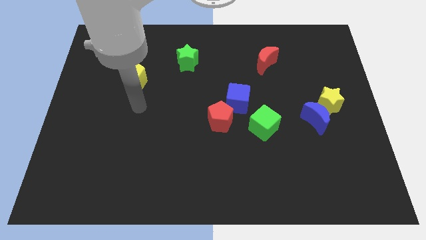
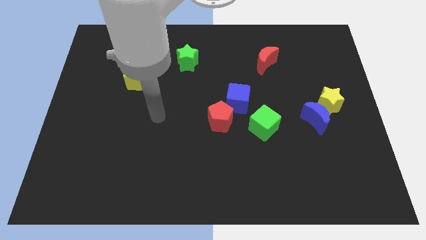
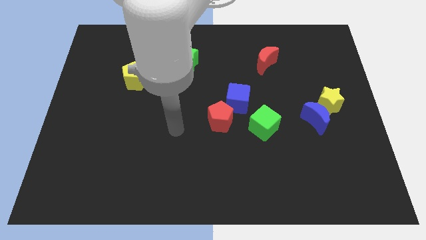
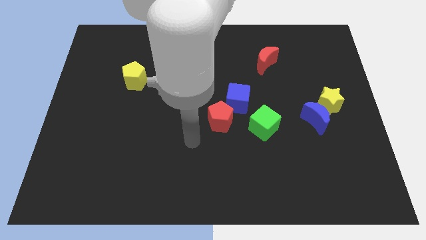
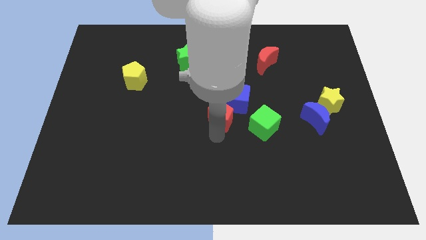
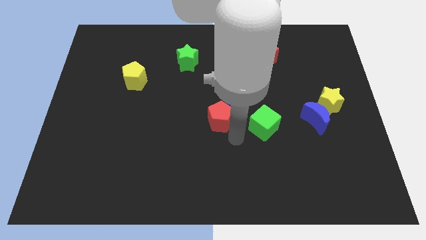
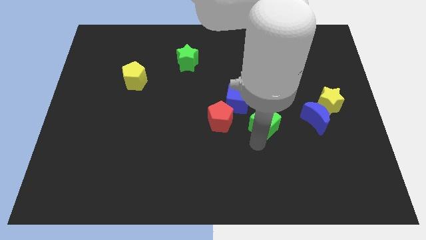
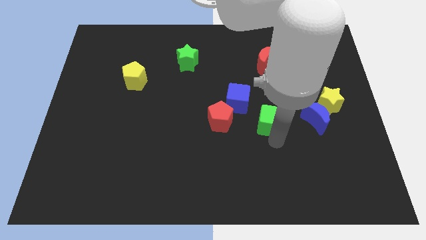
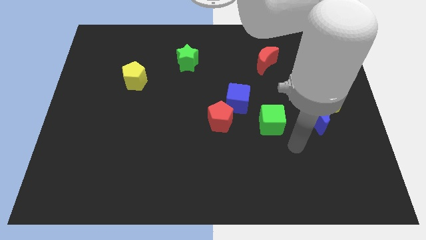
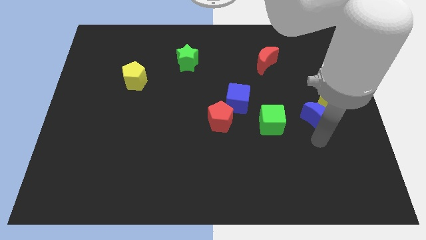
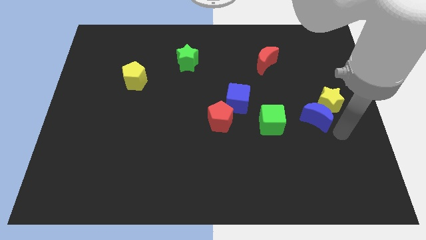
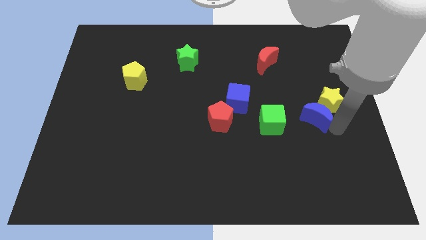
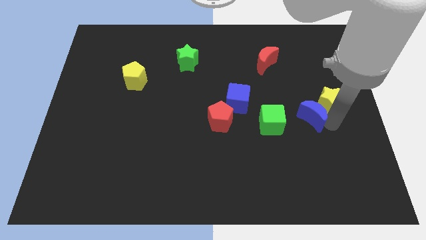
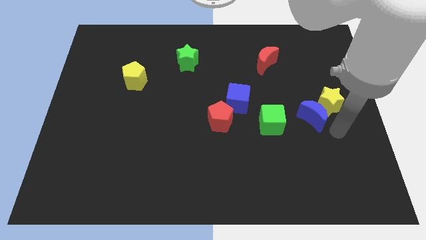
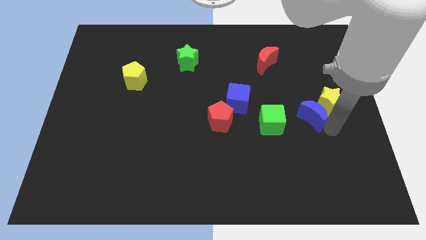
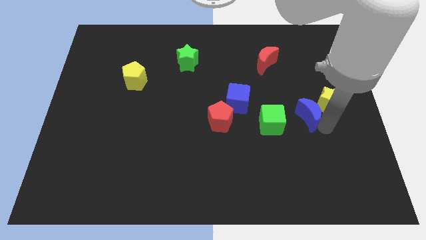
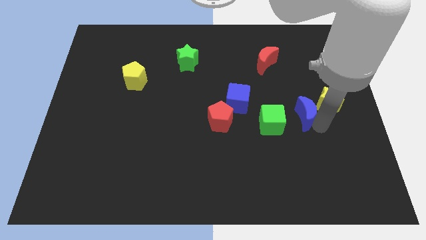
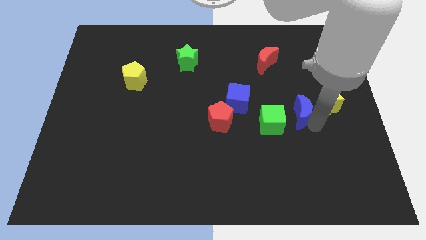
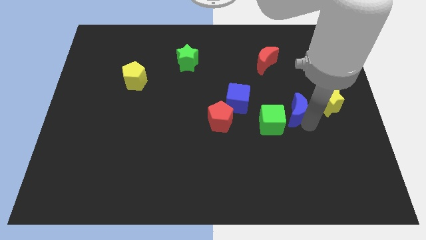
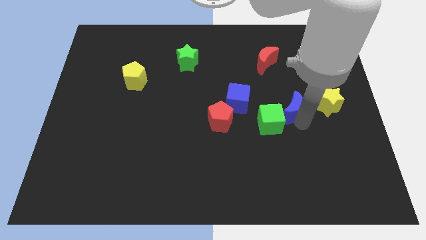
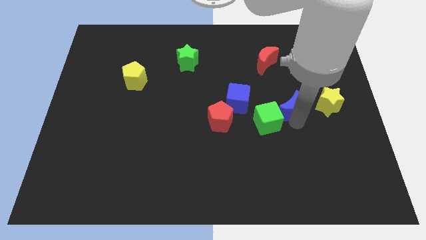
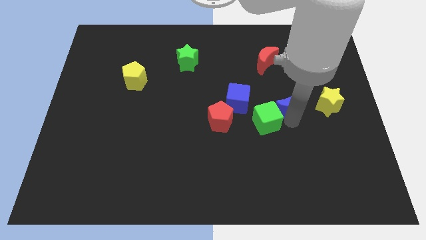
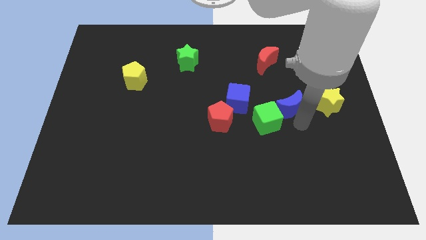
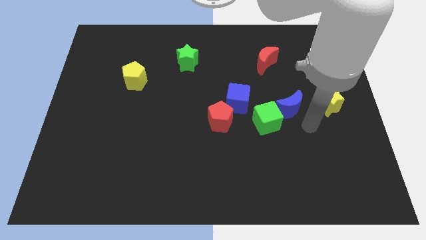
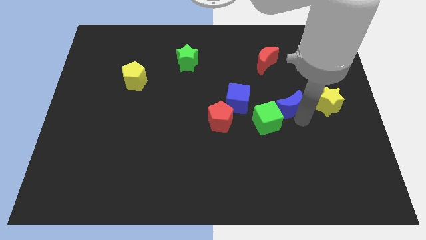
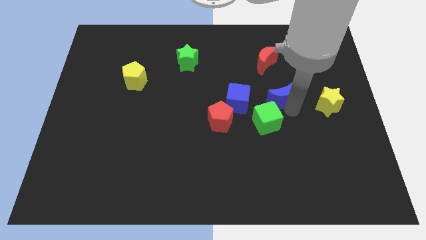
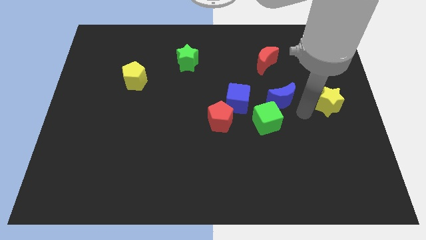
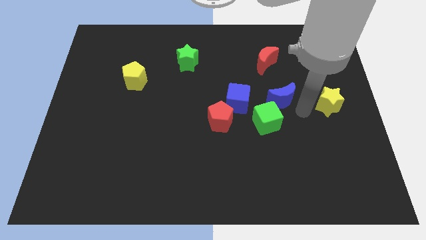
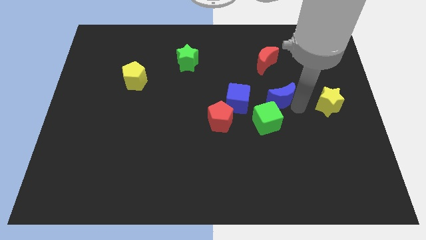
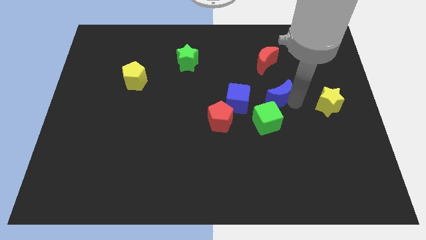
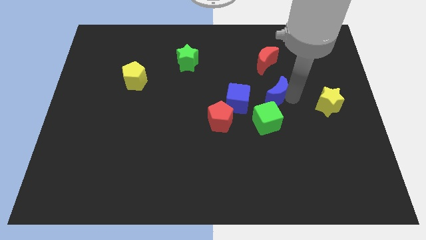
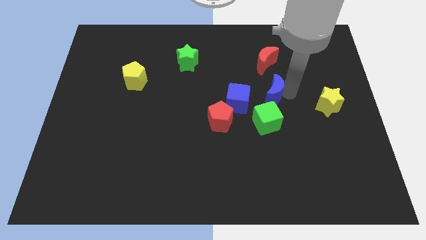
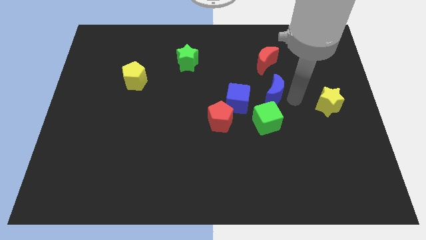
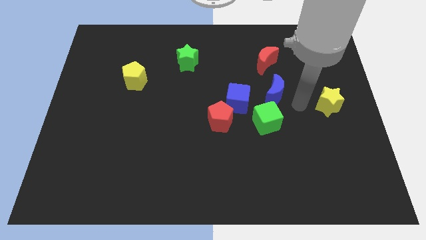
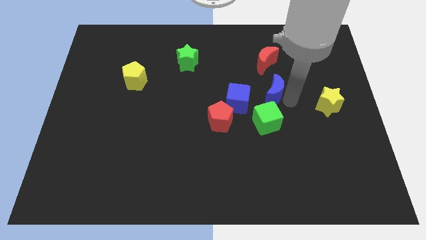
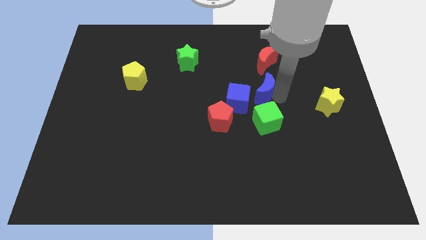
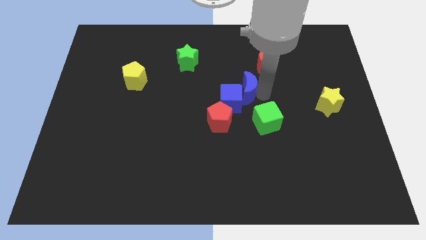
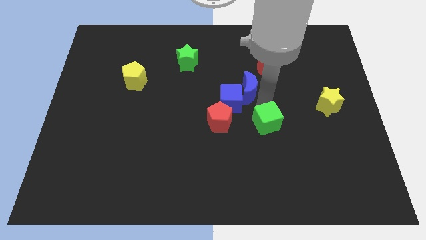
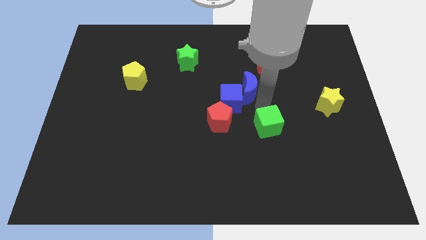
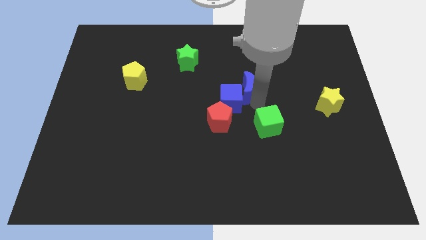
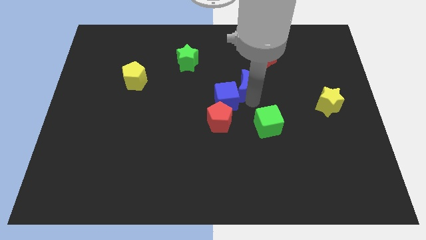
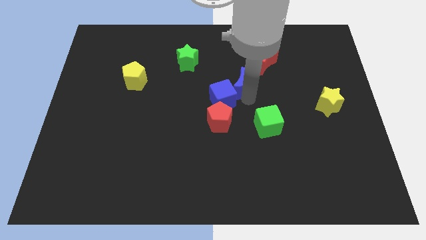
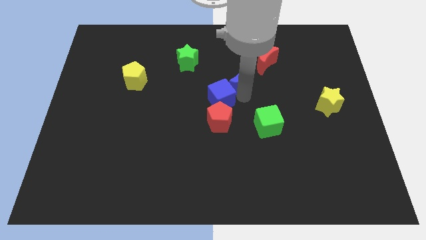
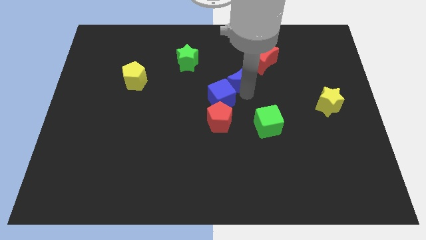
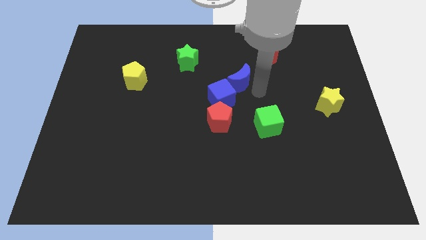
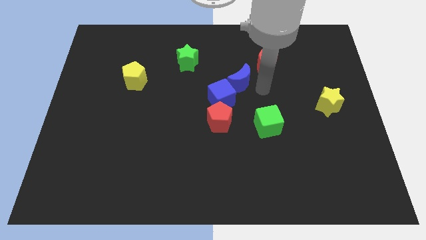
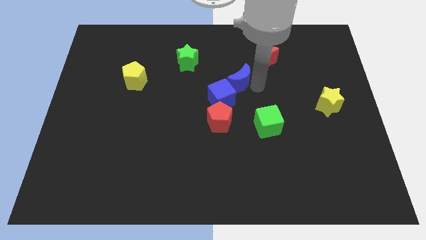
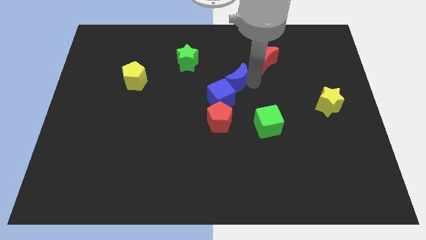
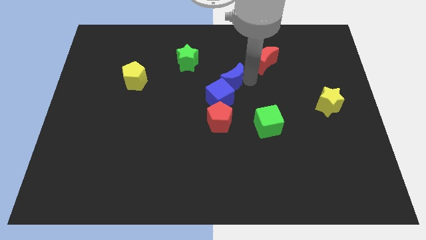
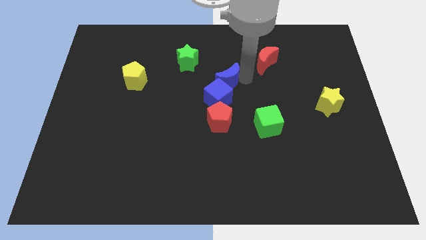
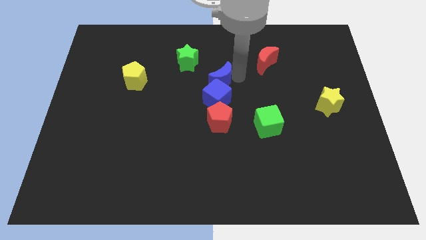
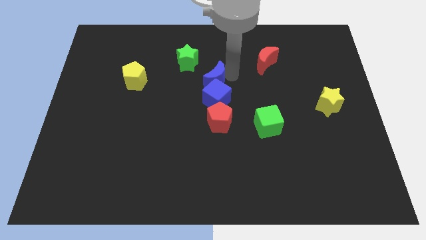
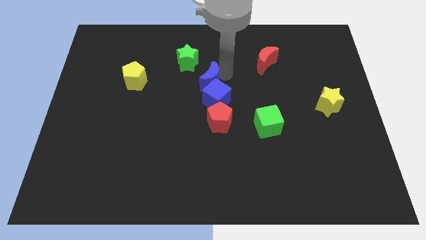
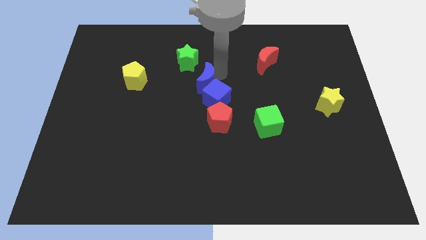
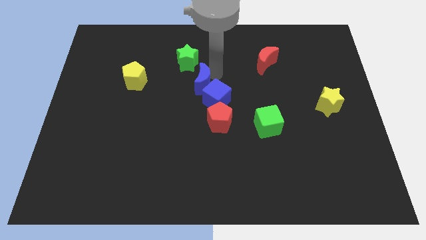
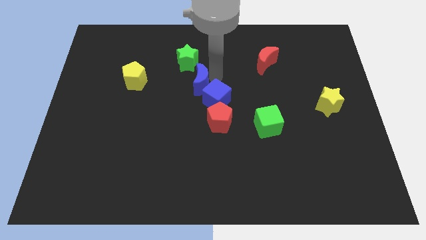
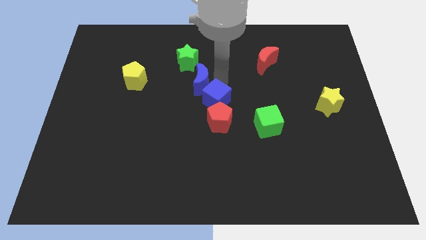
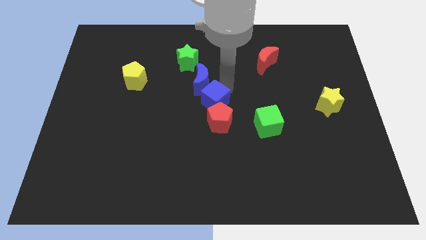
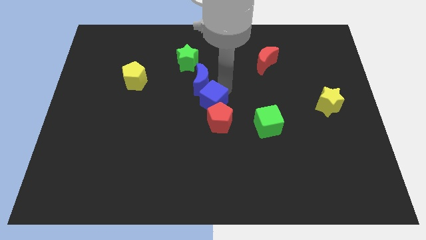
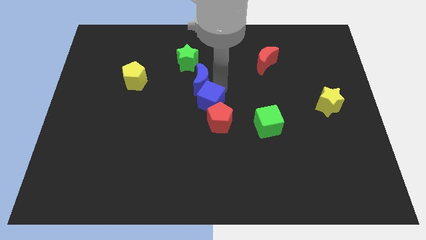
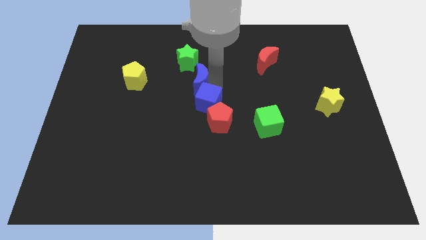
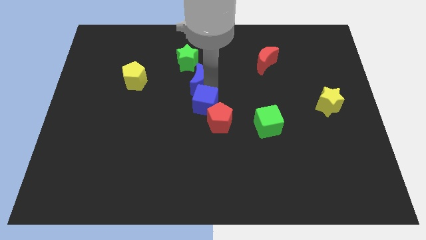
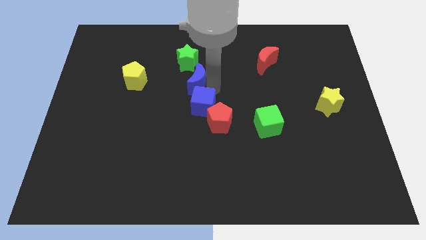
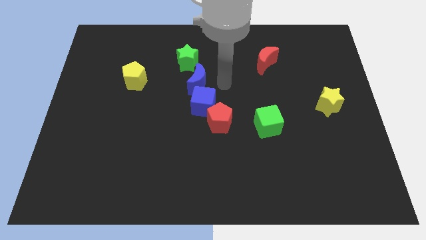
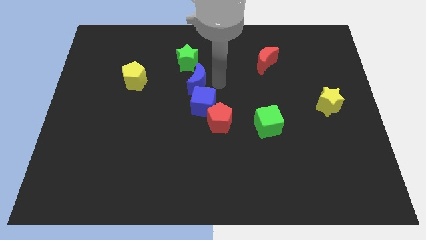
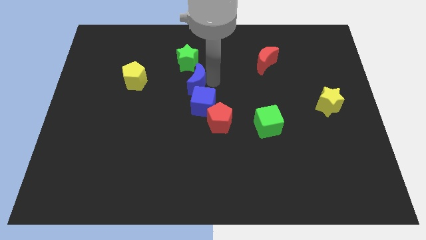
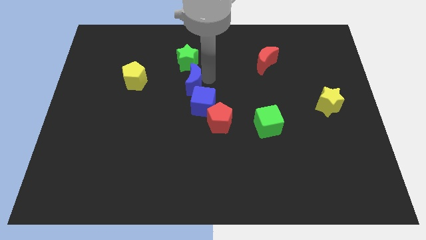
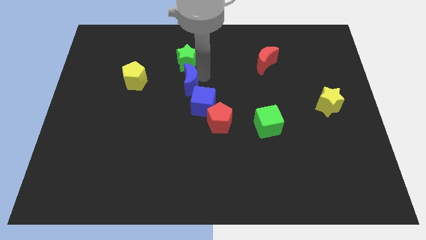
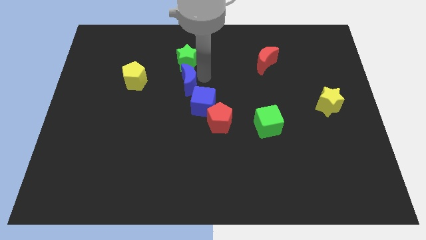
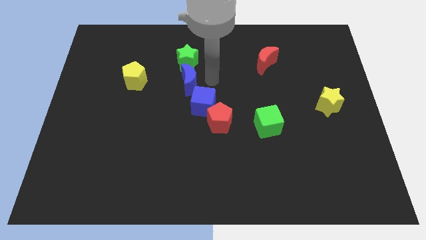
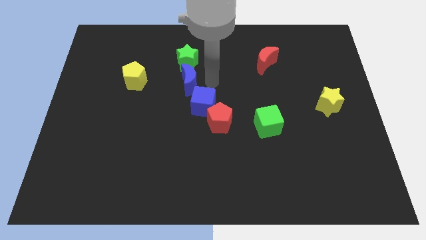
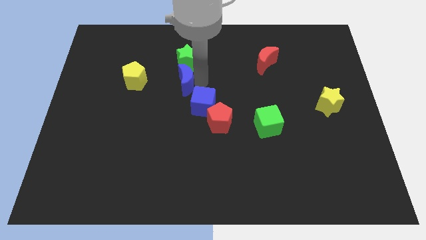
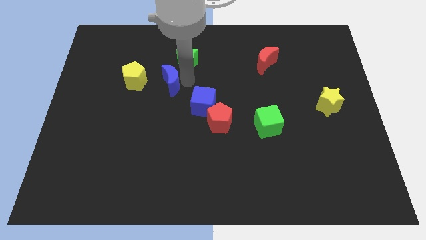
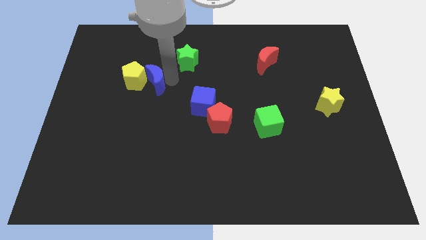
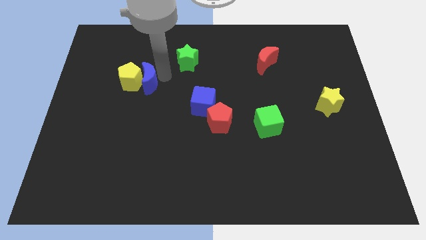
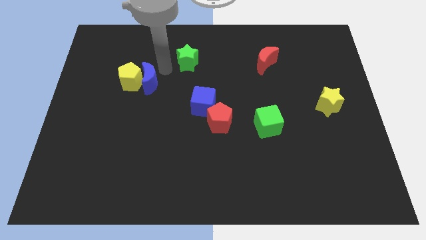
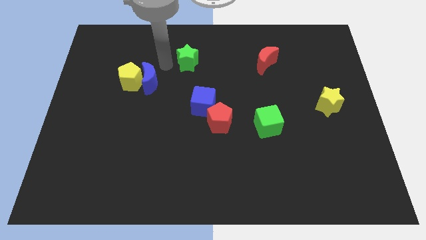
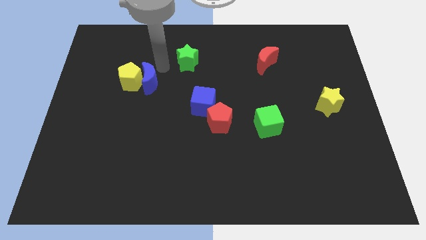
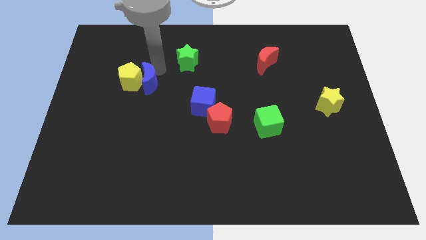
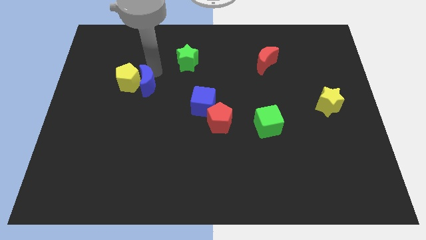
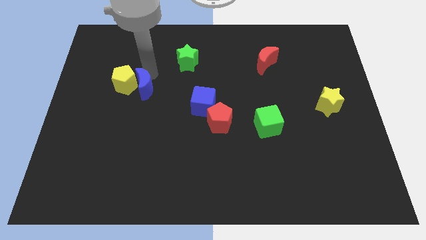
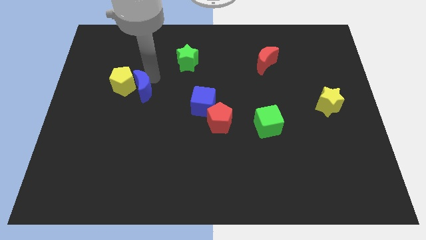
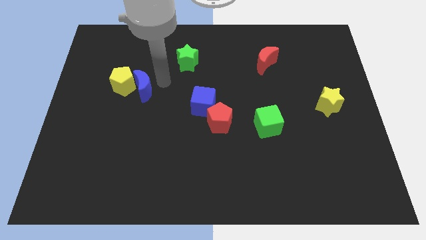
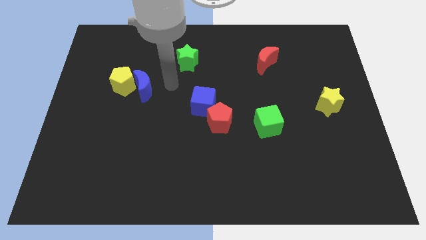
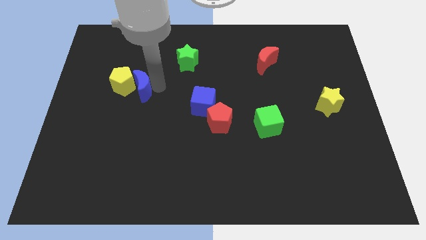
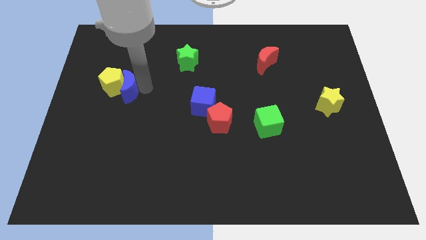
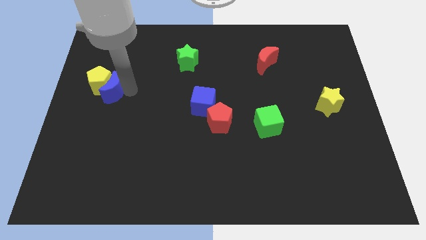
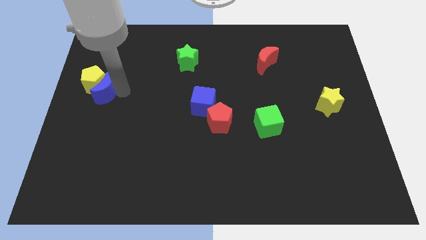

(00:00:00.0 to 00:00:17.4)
slide the blue moon to the center left
